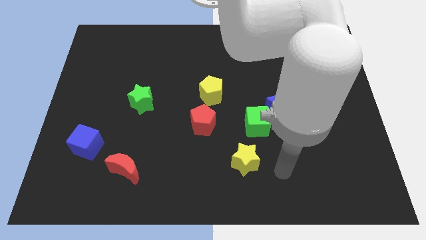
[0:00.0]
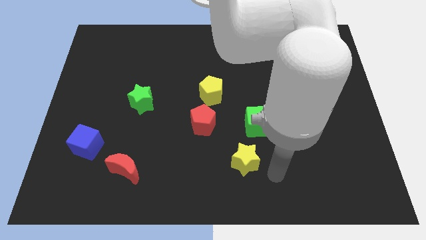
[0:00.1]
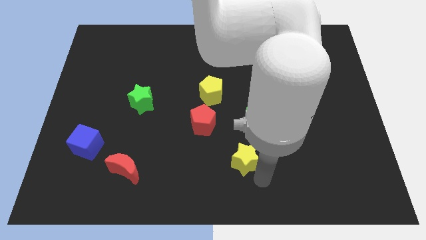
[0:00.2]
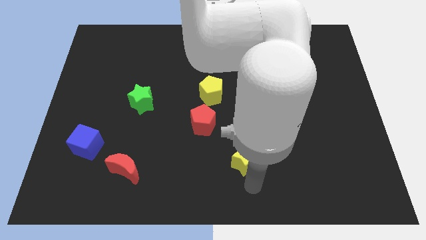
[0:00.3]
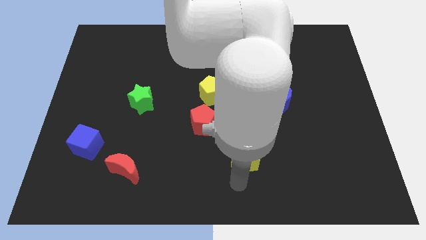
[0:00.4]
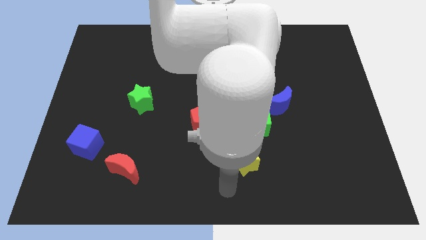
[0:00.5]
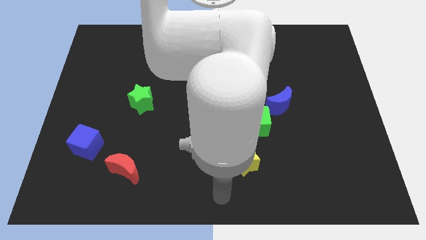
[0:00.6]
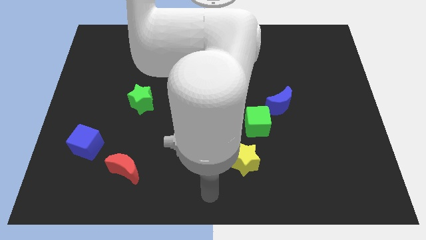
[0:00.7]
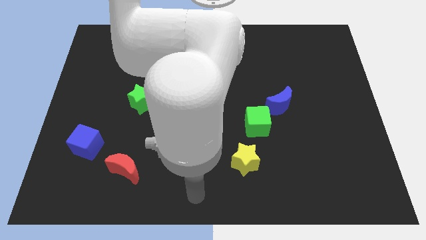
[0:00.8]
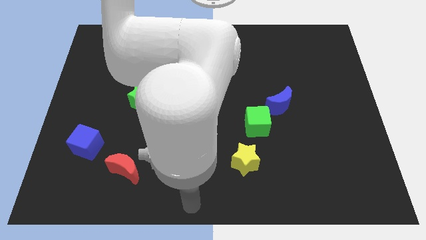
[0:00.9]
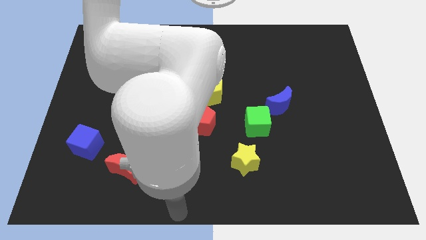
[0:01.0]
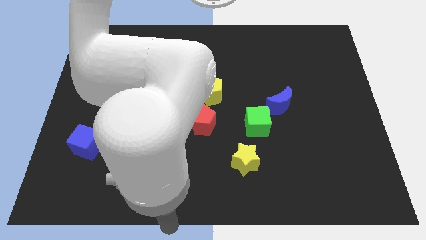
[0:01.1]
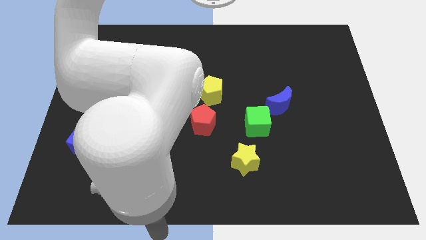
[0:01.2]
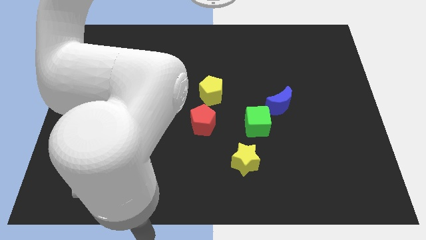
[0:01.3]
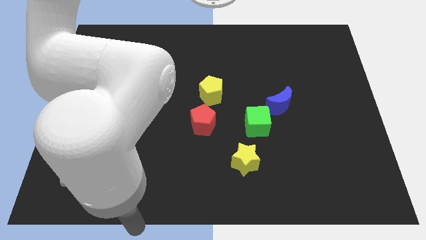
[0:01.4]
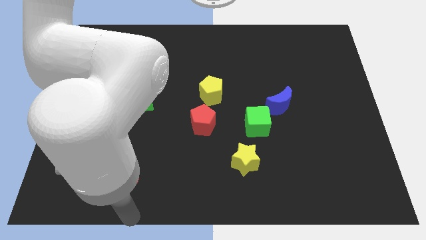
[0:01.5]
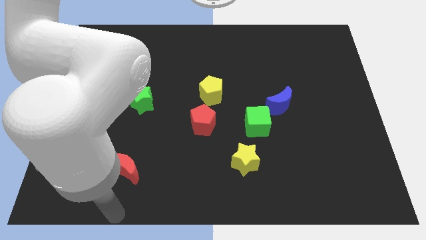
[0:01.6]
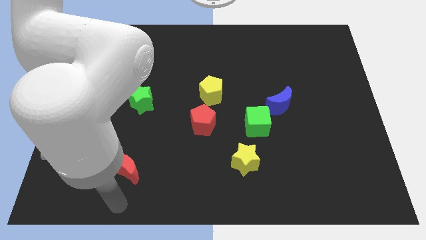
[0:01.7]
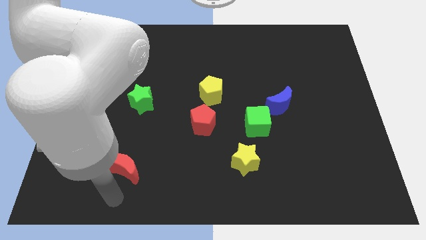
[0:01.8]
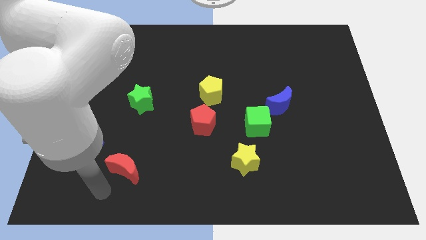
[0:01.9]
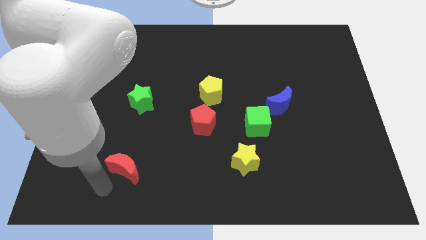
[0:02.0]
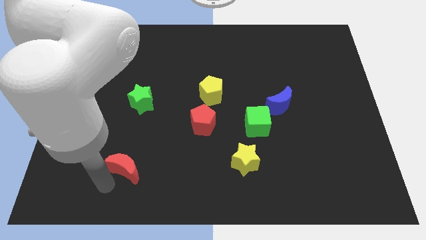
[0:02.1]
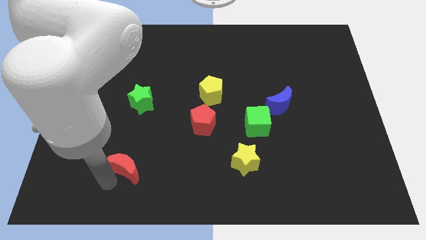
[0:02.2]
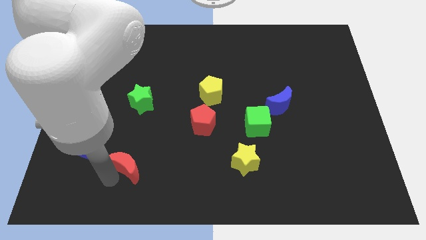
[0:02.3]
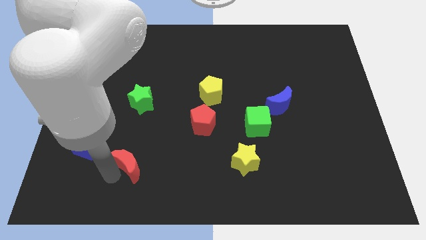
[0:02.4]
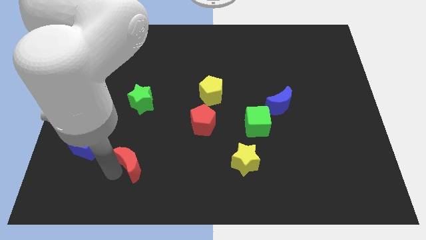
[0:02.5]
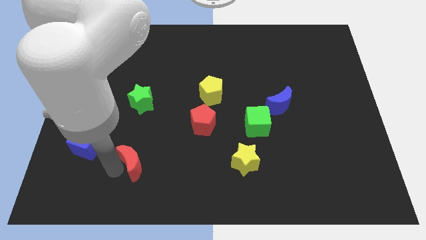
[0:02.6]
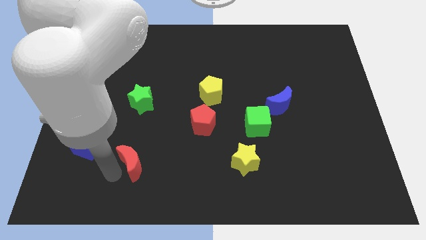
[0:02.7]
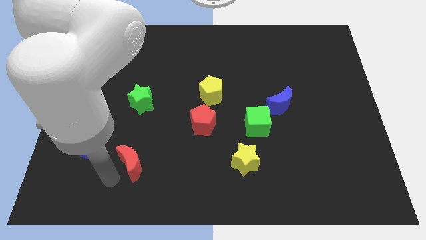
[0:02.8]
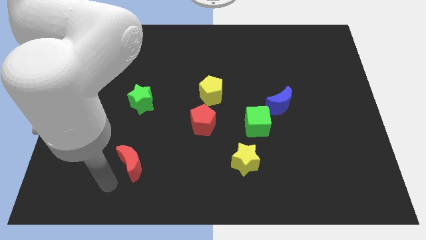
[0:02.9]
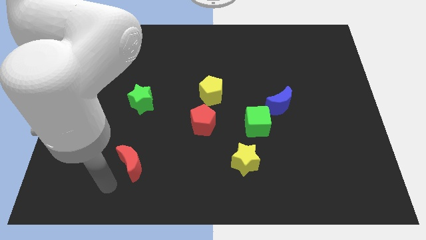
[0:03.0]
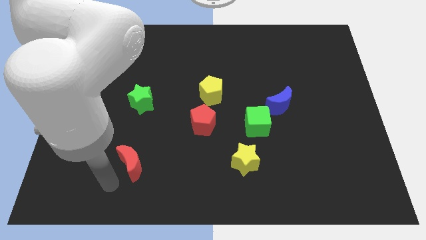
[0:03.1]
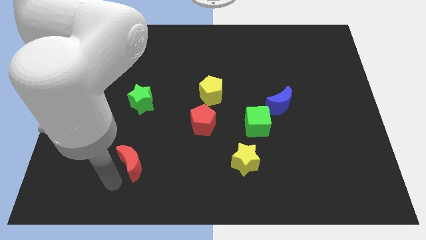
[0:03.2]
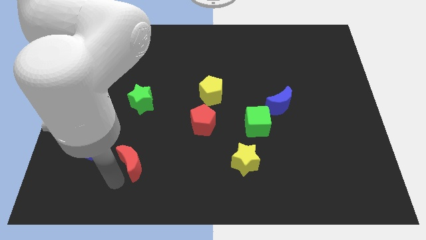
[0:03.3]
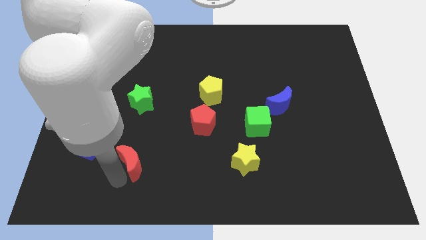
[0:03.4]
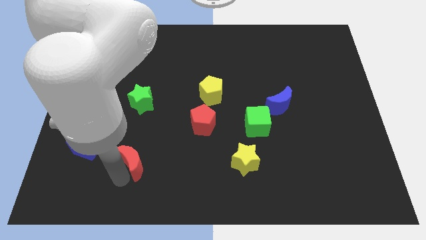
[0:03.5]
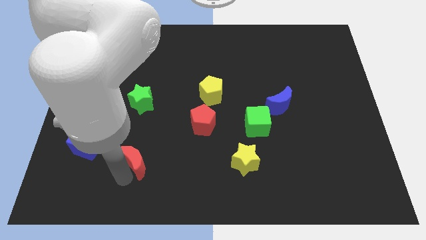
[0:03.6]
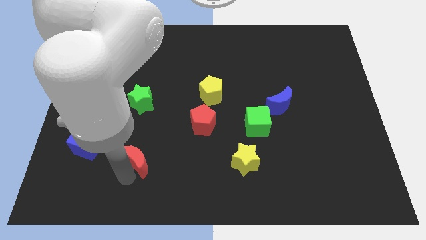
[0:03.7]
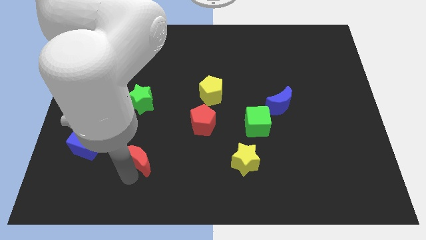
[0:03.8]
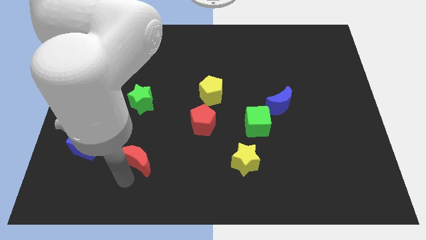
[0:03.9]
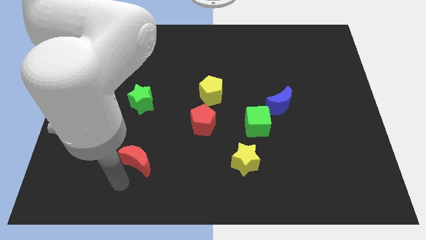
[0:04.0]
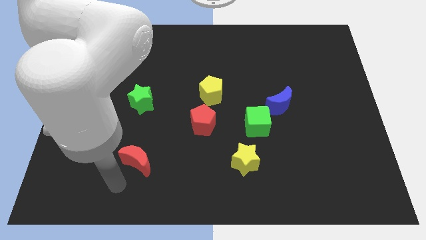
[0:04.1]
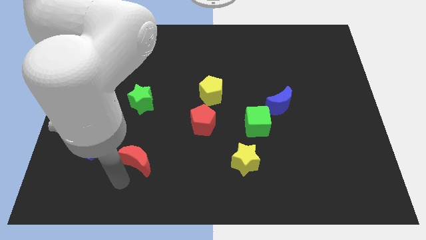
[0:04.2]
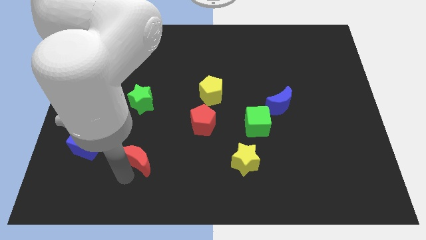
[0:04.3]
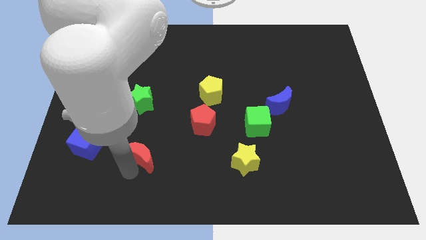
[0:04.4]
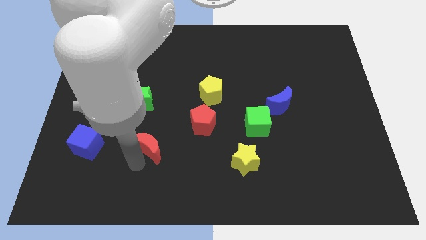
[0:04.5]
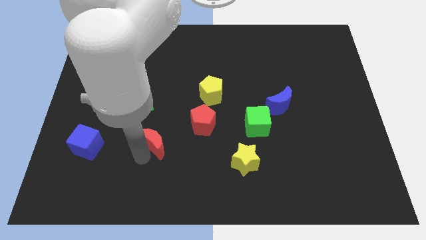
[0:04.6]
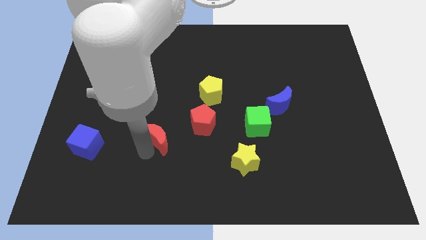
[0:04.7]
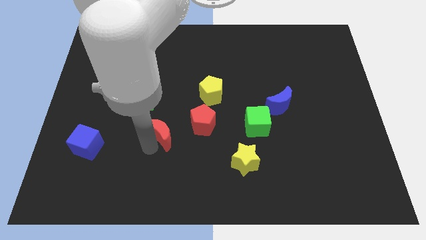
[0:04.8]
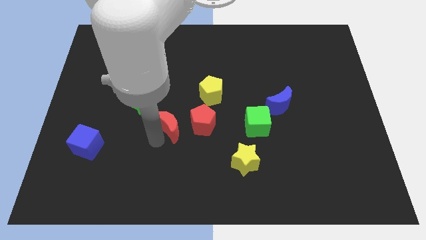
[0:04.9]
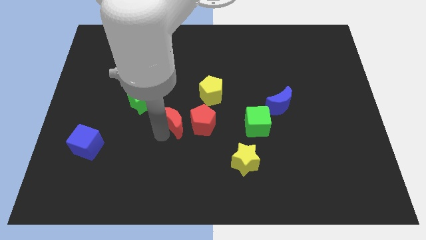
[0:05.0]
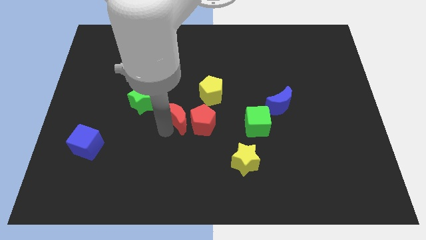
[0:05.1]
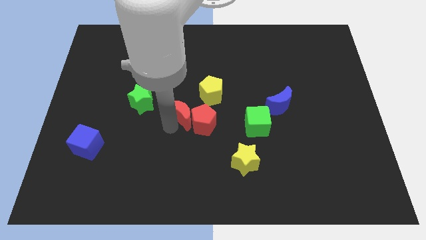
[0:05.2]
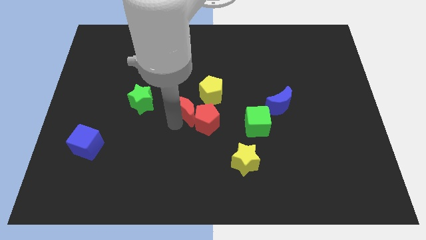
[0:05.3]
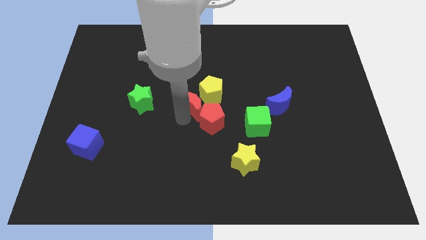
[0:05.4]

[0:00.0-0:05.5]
put the red moon to the top of the red pentagon

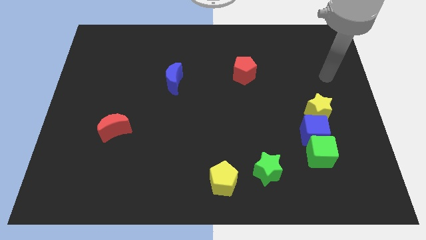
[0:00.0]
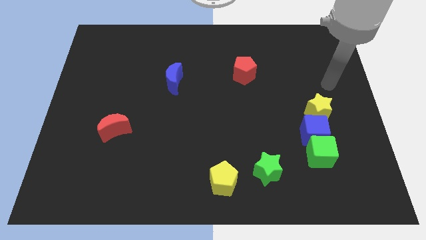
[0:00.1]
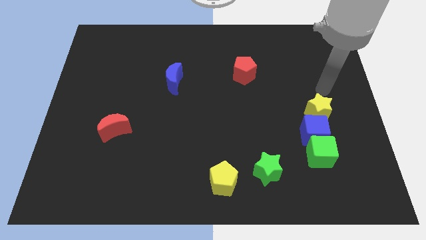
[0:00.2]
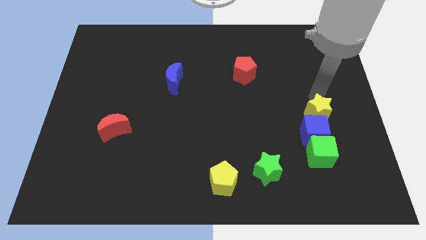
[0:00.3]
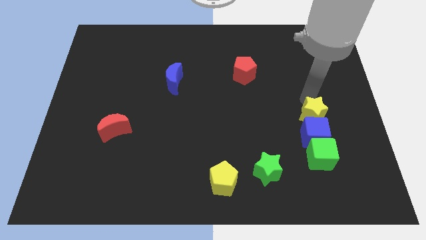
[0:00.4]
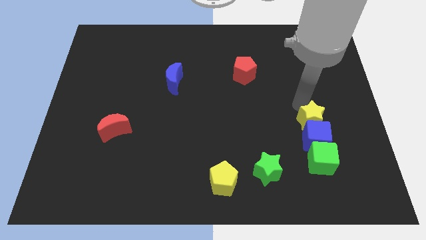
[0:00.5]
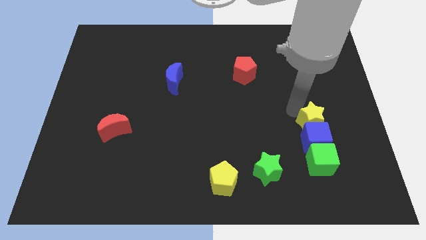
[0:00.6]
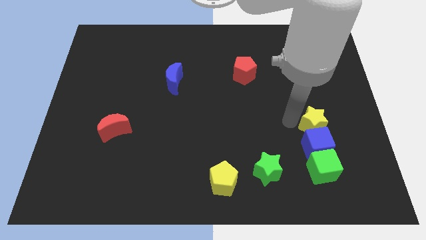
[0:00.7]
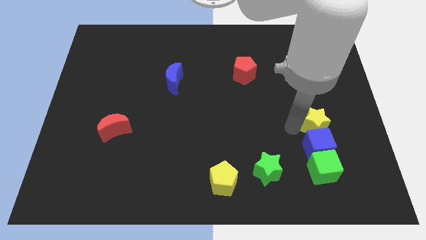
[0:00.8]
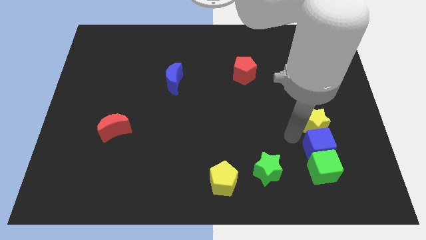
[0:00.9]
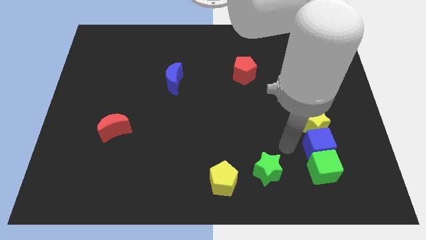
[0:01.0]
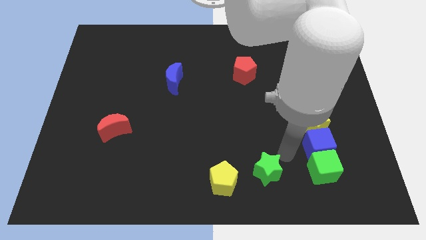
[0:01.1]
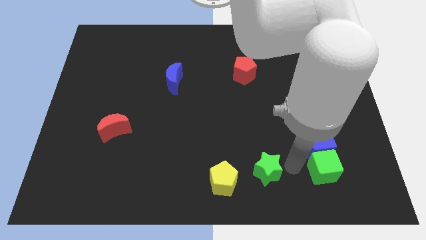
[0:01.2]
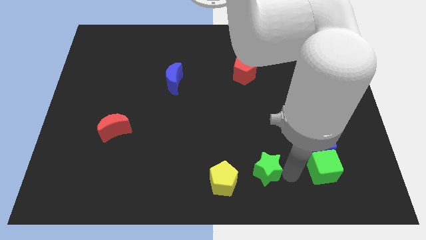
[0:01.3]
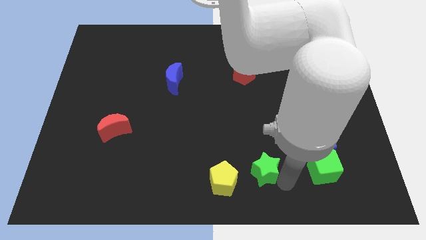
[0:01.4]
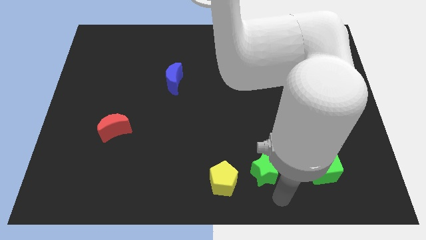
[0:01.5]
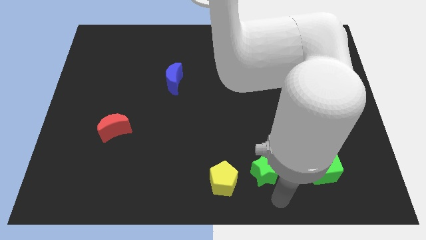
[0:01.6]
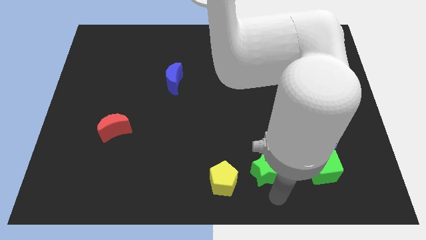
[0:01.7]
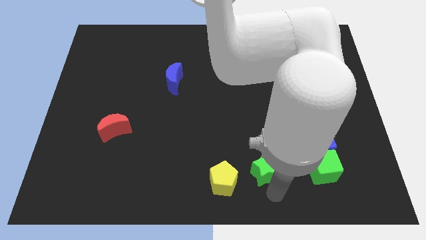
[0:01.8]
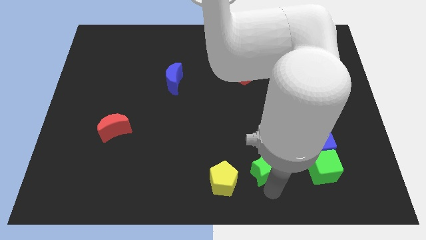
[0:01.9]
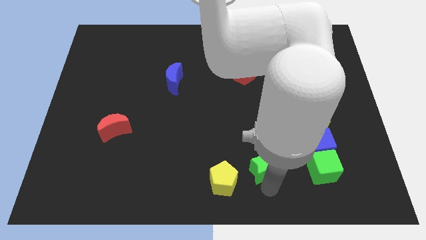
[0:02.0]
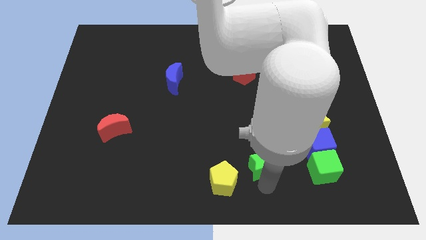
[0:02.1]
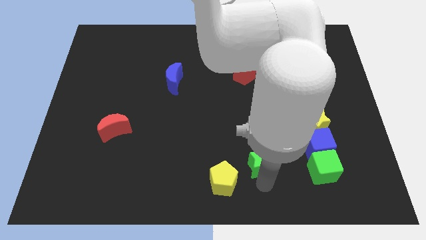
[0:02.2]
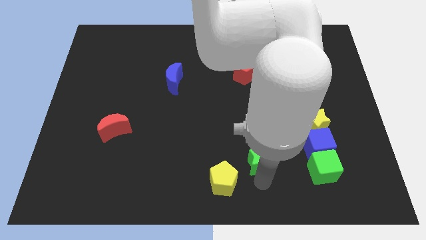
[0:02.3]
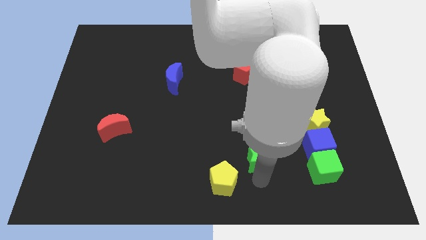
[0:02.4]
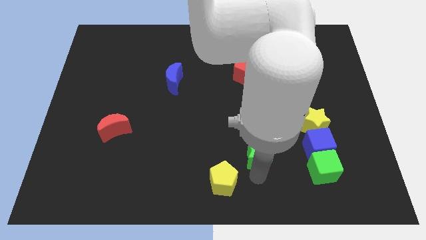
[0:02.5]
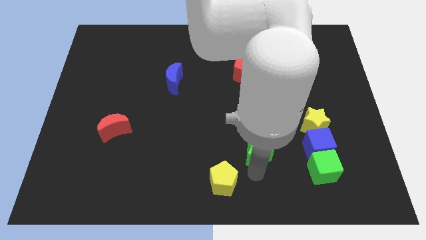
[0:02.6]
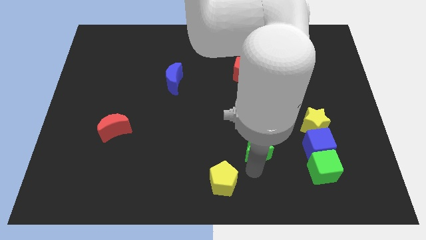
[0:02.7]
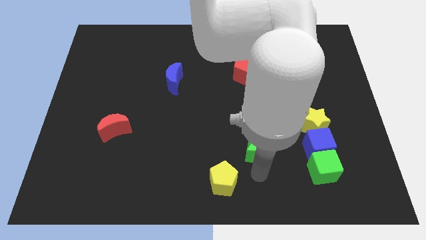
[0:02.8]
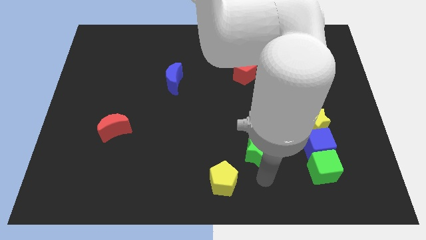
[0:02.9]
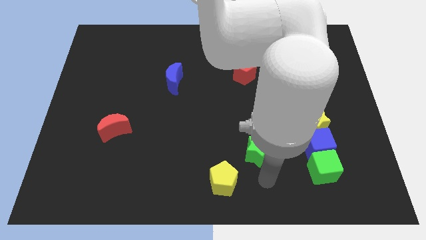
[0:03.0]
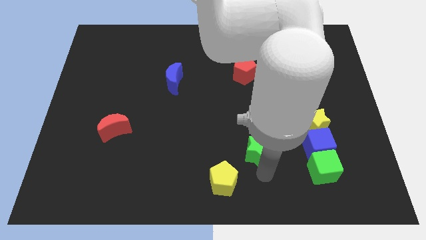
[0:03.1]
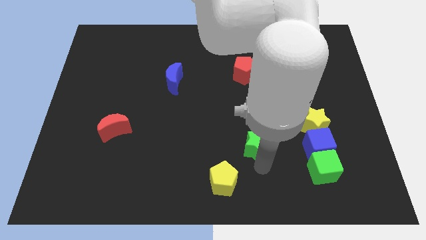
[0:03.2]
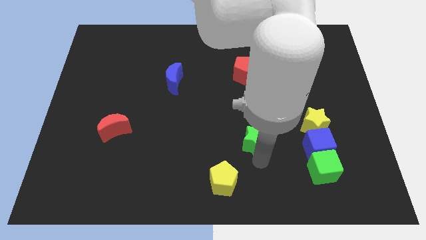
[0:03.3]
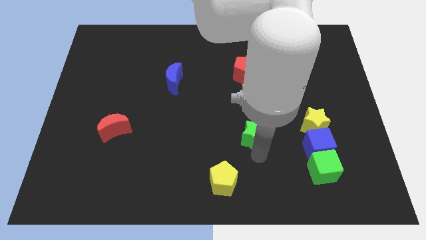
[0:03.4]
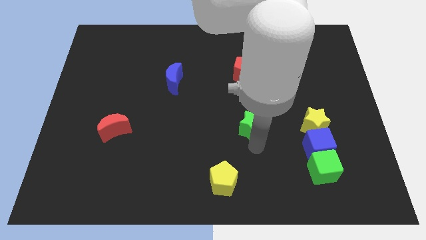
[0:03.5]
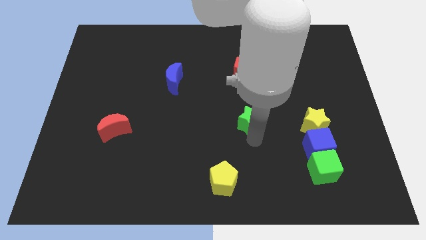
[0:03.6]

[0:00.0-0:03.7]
put the green star to the bottom of the red pentagon
